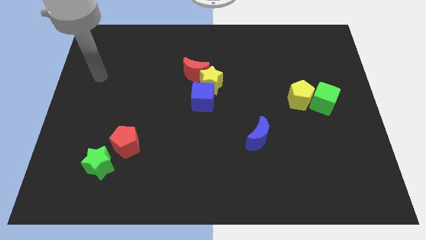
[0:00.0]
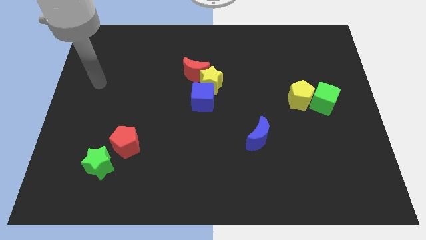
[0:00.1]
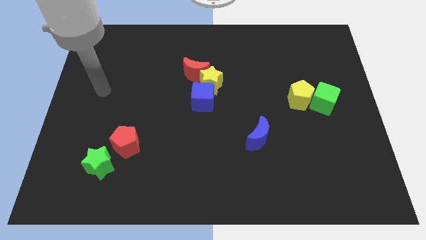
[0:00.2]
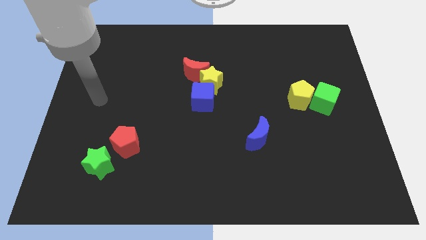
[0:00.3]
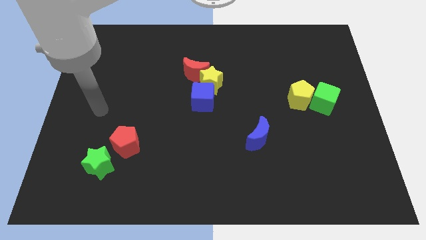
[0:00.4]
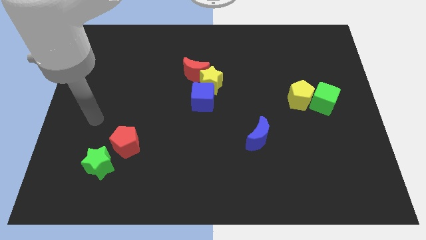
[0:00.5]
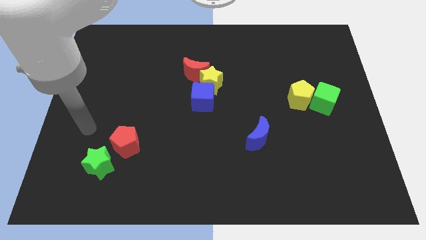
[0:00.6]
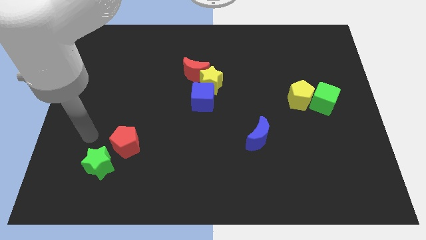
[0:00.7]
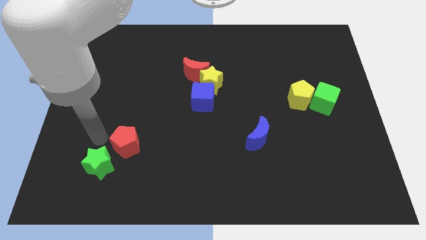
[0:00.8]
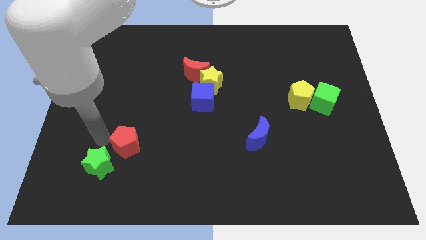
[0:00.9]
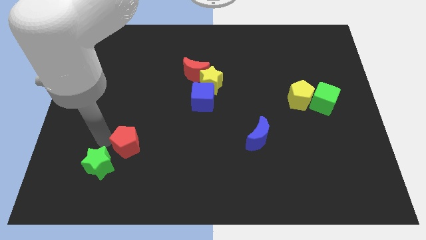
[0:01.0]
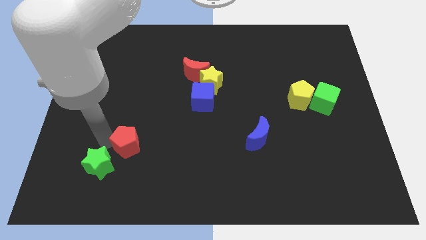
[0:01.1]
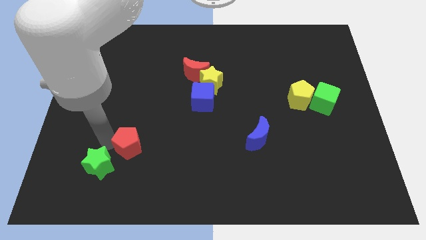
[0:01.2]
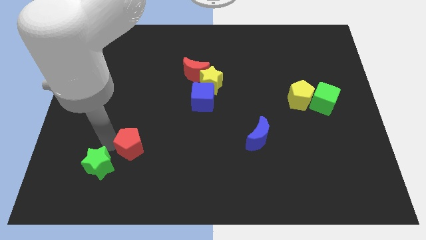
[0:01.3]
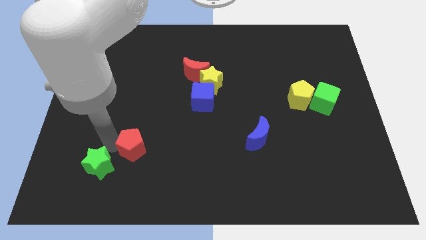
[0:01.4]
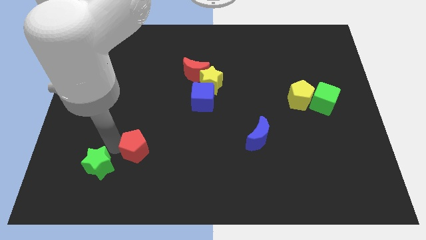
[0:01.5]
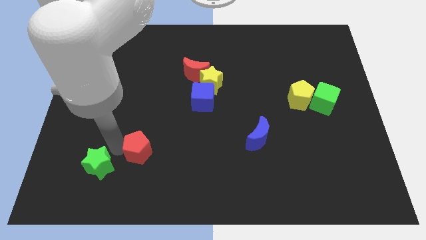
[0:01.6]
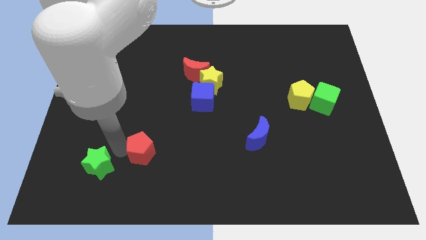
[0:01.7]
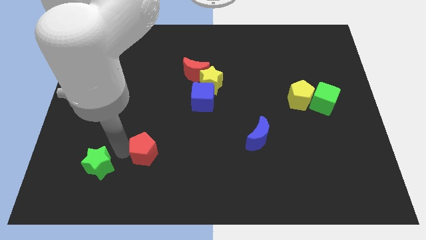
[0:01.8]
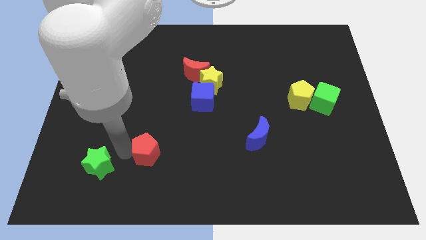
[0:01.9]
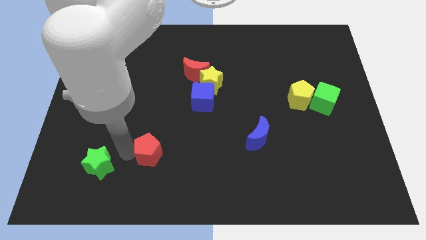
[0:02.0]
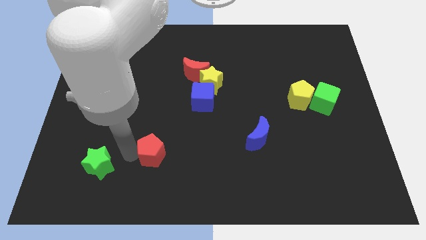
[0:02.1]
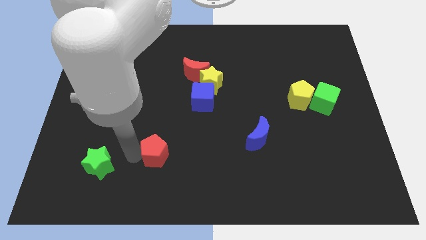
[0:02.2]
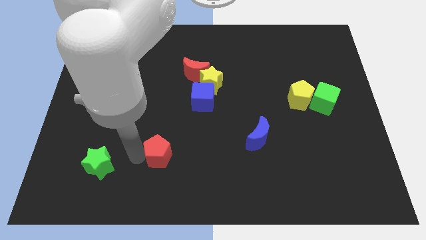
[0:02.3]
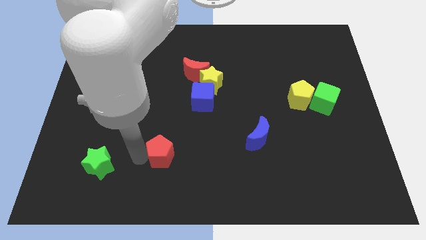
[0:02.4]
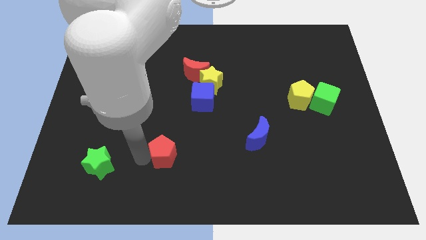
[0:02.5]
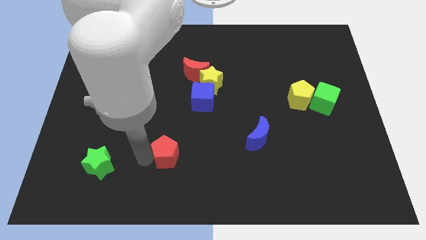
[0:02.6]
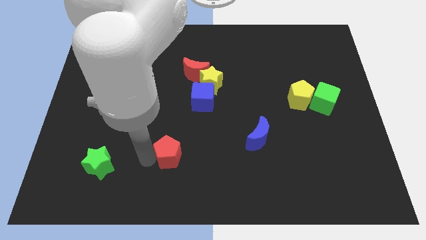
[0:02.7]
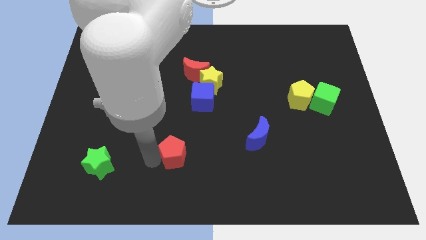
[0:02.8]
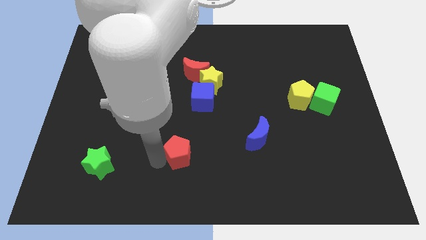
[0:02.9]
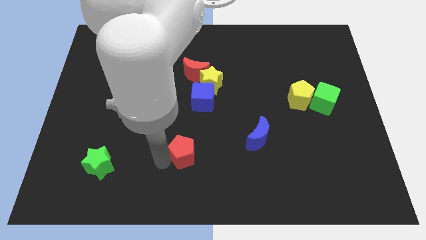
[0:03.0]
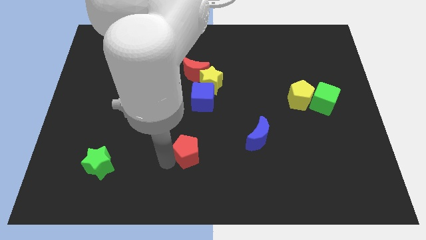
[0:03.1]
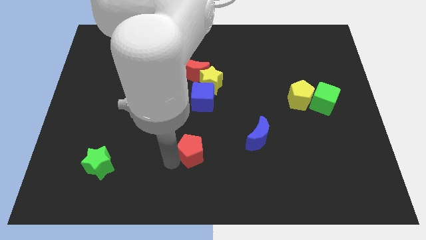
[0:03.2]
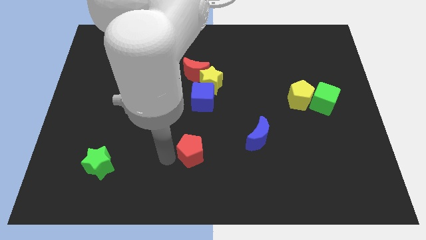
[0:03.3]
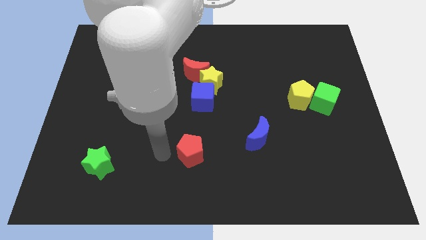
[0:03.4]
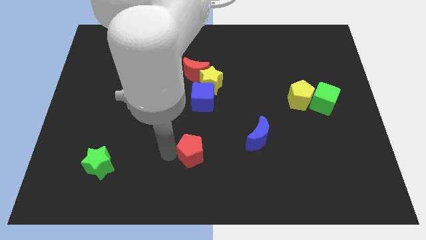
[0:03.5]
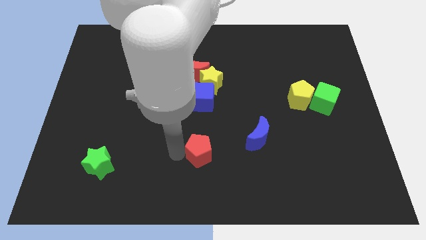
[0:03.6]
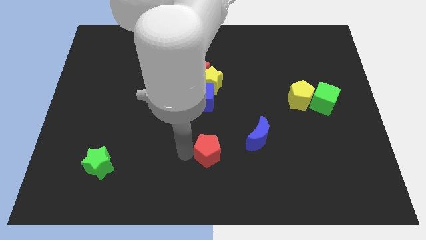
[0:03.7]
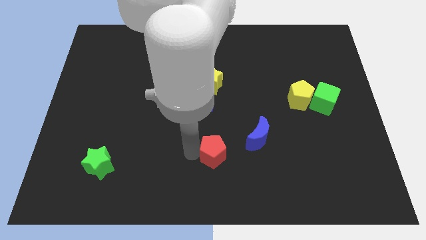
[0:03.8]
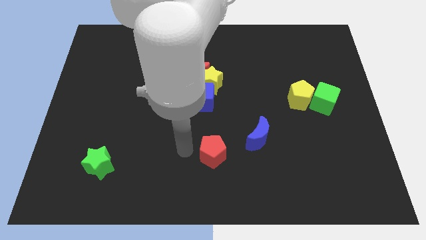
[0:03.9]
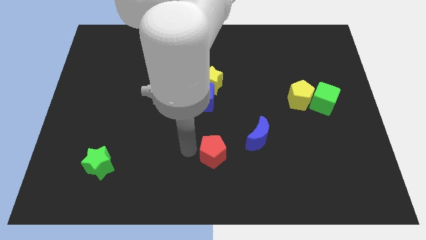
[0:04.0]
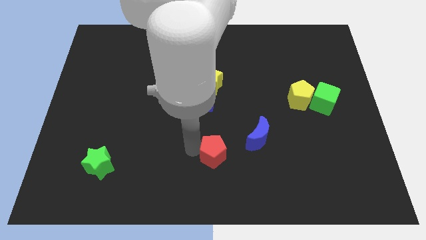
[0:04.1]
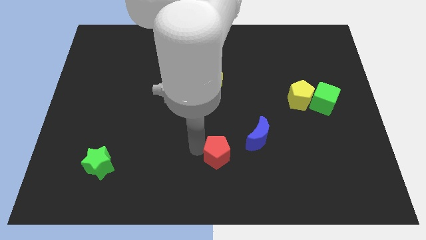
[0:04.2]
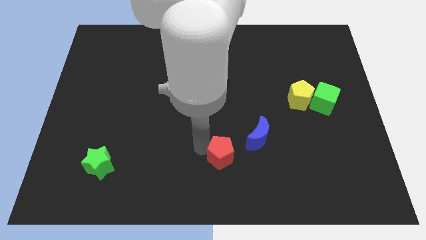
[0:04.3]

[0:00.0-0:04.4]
slide the red pentagon right

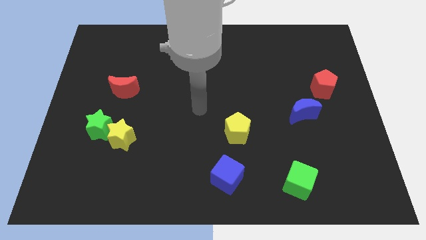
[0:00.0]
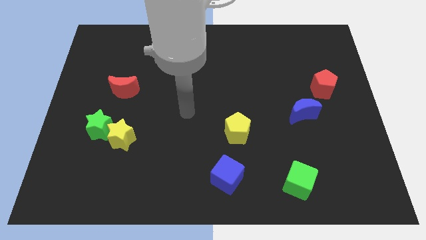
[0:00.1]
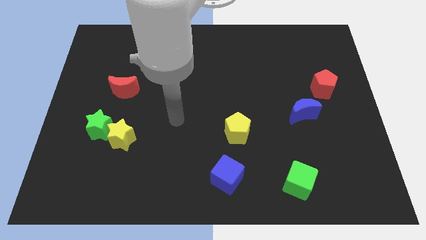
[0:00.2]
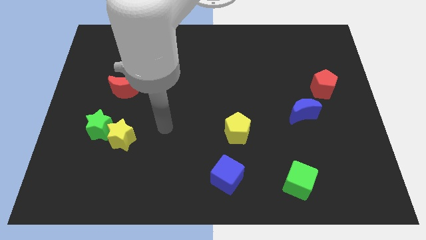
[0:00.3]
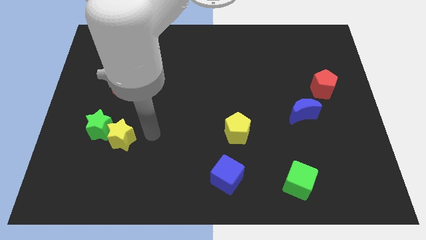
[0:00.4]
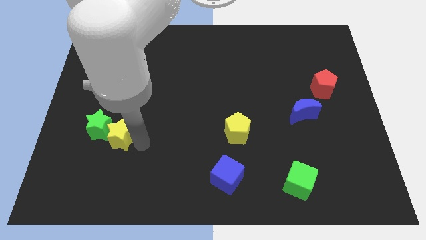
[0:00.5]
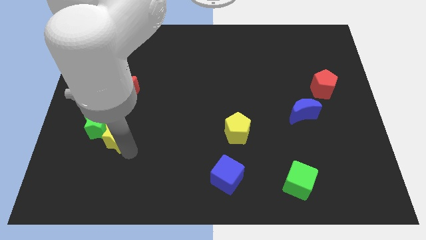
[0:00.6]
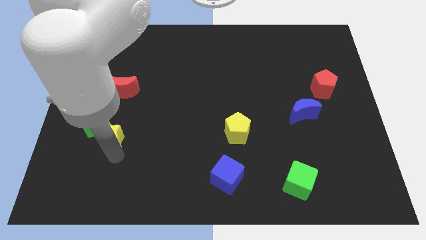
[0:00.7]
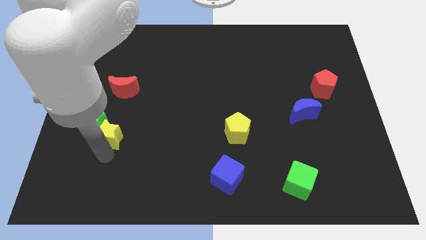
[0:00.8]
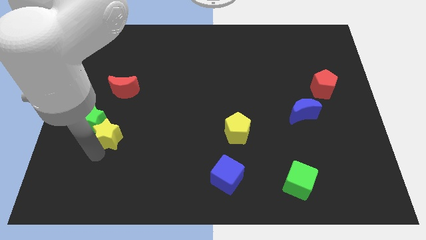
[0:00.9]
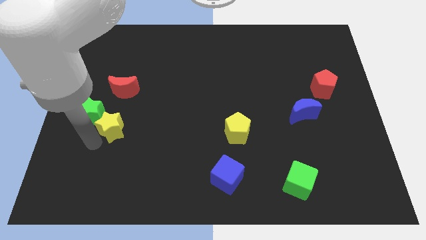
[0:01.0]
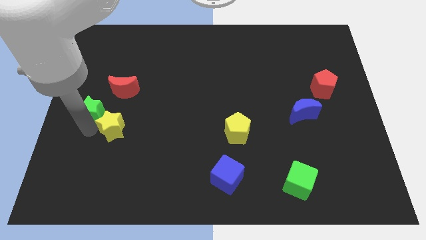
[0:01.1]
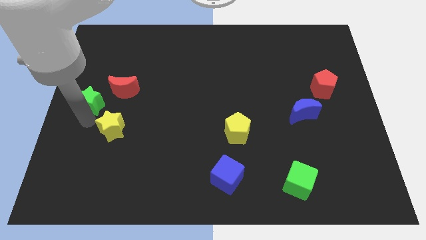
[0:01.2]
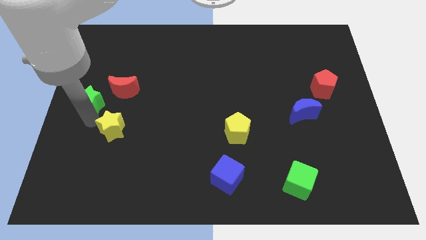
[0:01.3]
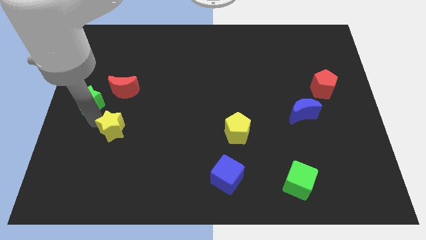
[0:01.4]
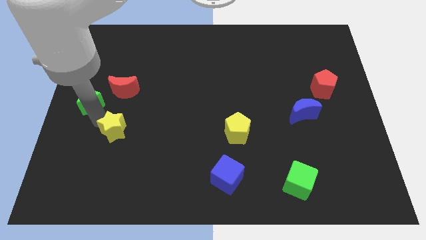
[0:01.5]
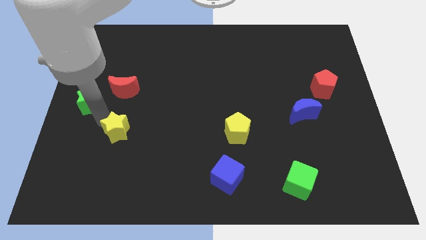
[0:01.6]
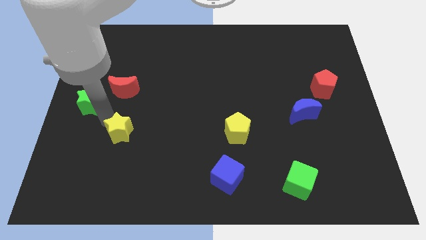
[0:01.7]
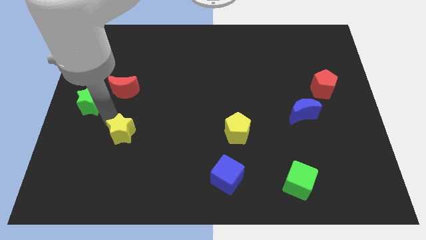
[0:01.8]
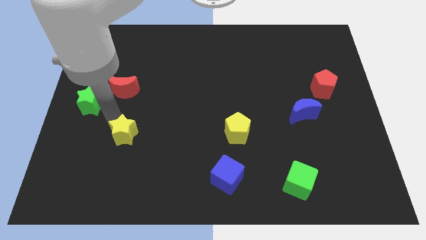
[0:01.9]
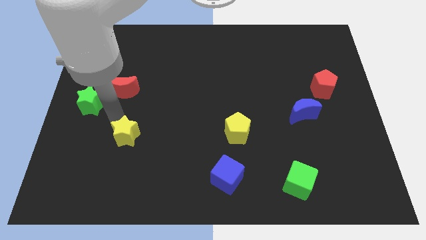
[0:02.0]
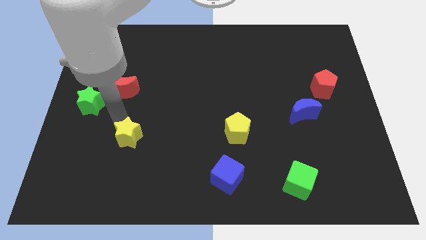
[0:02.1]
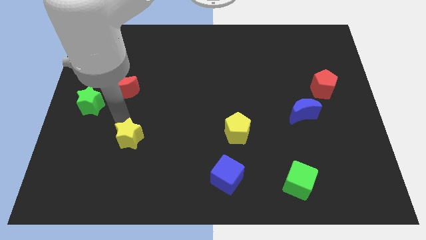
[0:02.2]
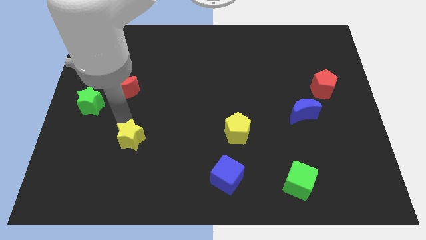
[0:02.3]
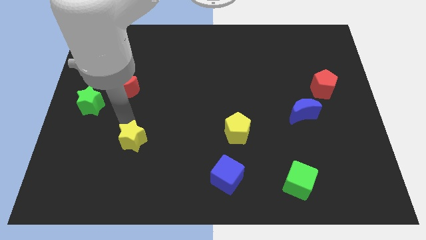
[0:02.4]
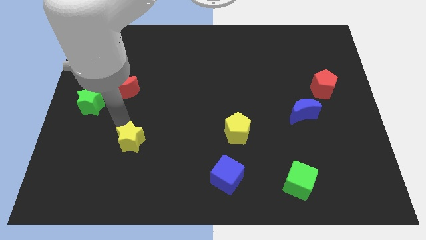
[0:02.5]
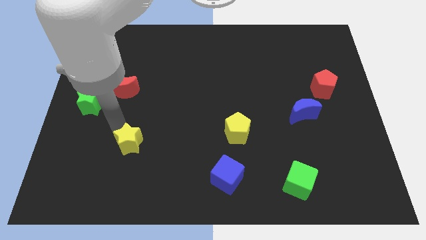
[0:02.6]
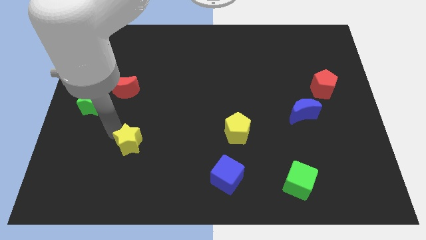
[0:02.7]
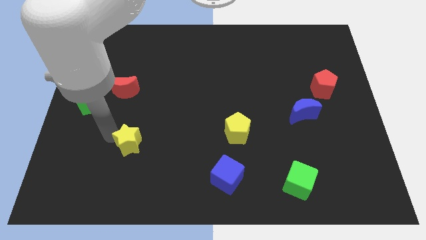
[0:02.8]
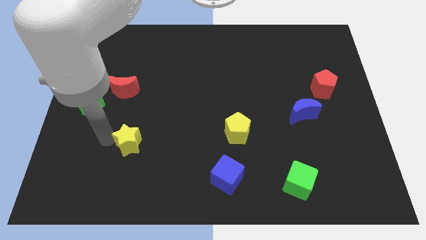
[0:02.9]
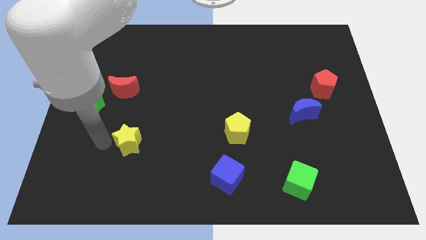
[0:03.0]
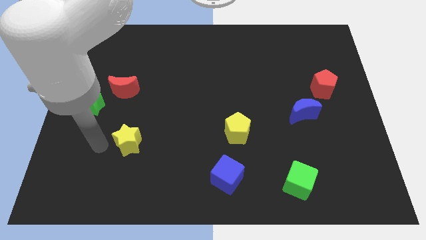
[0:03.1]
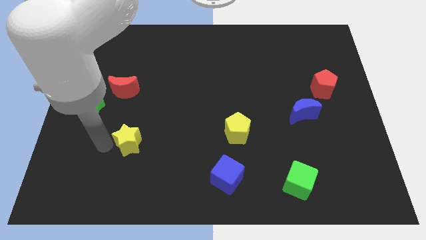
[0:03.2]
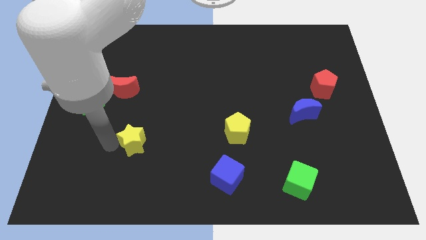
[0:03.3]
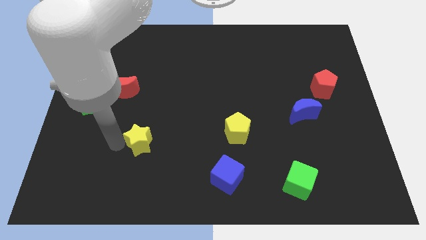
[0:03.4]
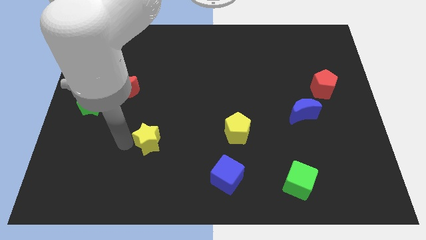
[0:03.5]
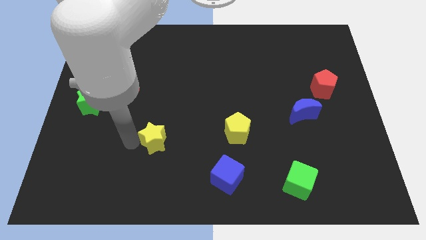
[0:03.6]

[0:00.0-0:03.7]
push the yellow star to the right a little bit

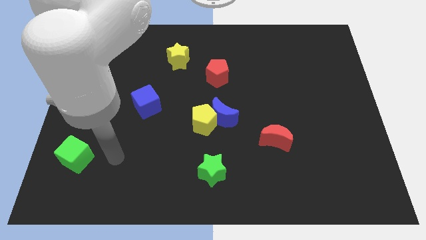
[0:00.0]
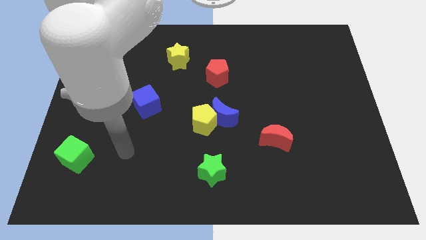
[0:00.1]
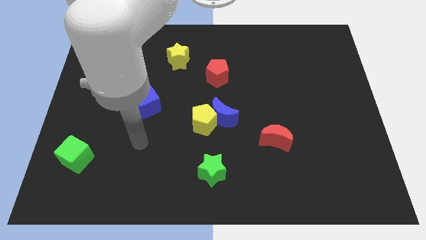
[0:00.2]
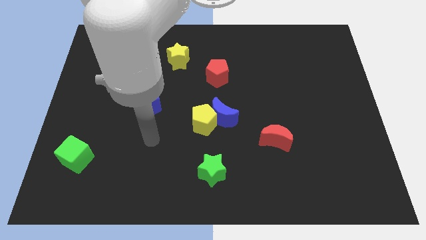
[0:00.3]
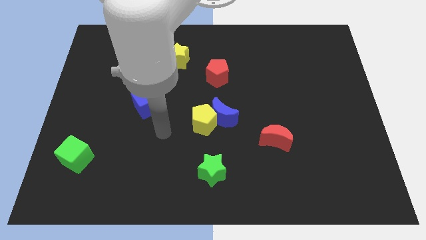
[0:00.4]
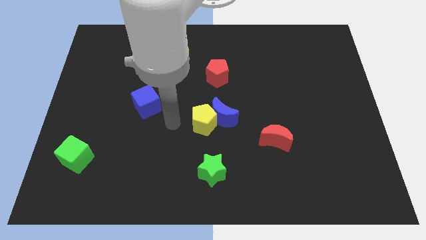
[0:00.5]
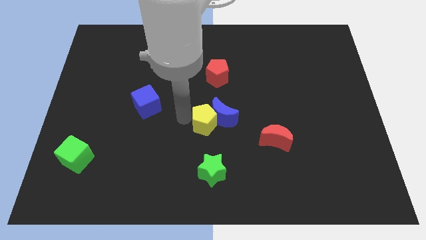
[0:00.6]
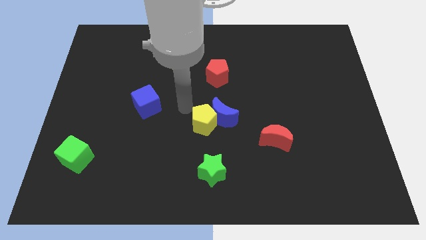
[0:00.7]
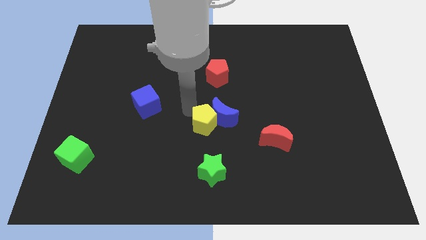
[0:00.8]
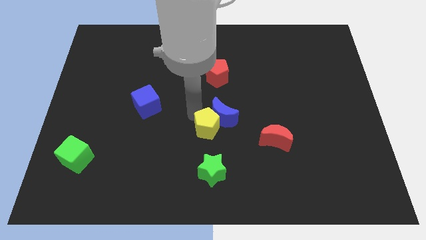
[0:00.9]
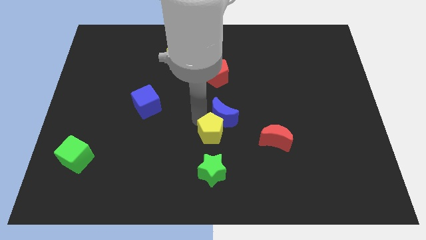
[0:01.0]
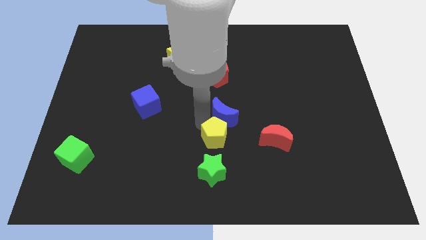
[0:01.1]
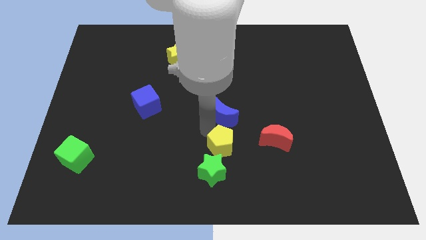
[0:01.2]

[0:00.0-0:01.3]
slide the yellow pentagon a little diagonally downwards and to the right
